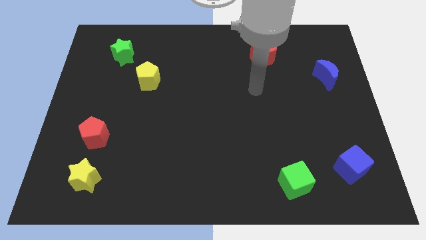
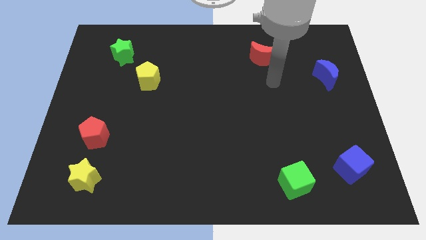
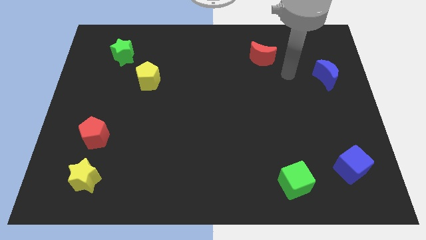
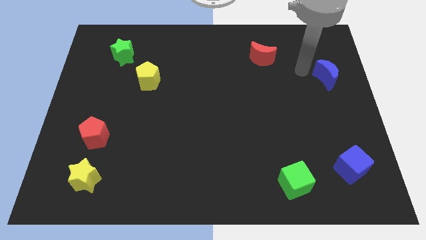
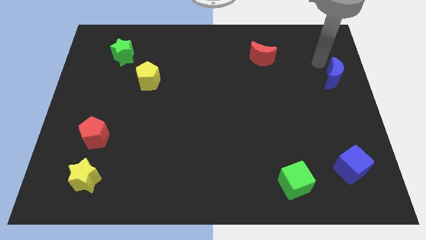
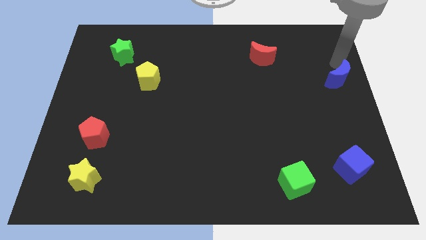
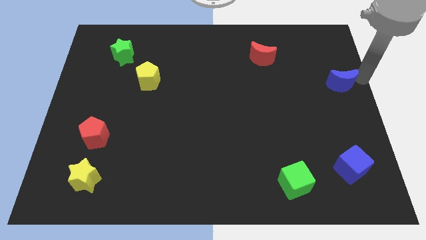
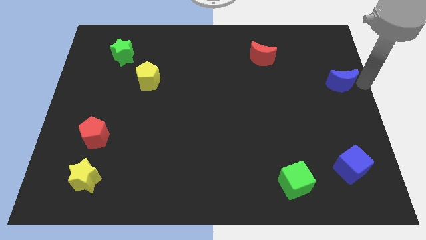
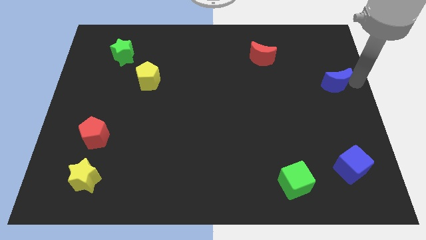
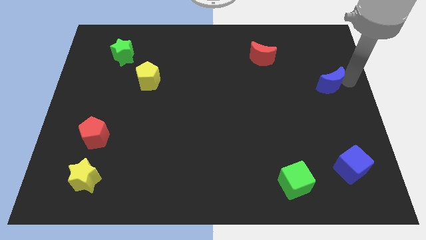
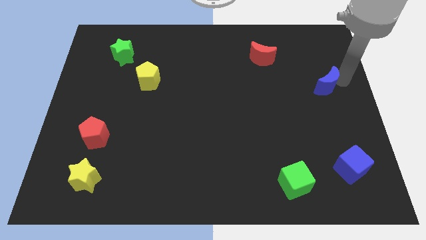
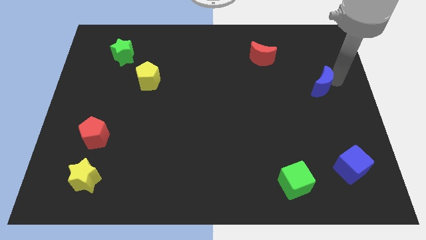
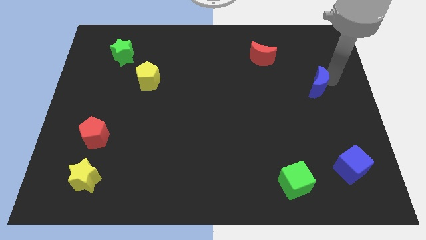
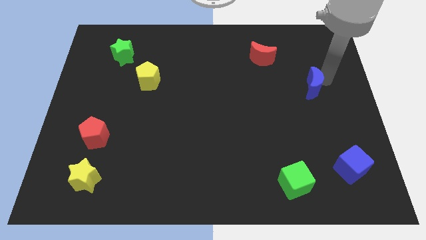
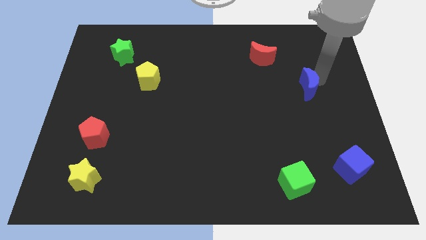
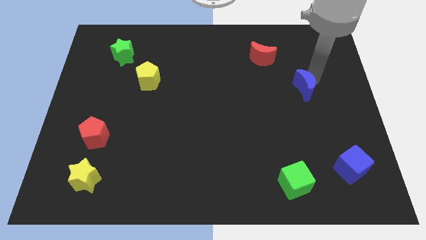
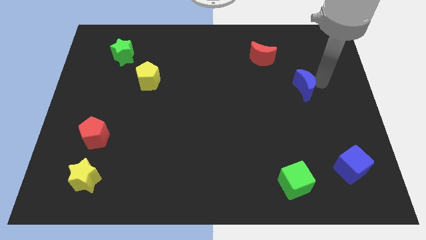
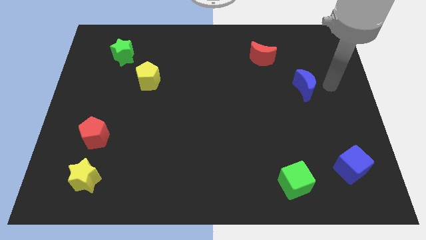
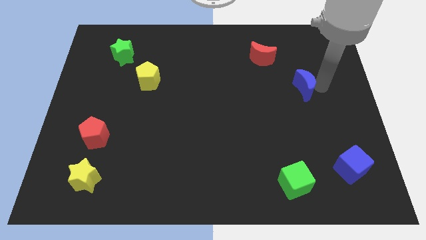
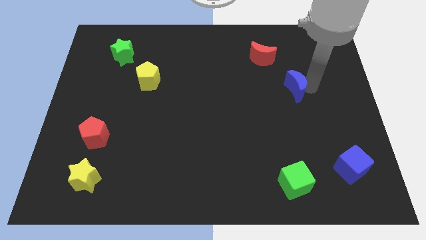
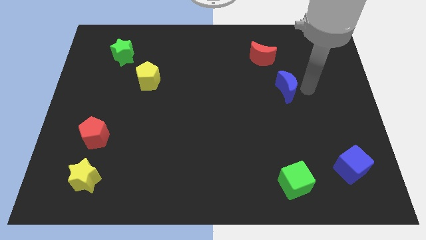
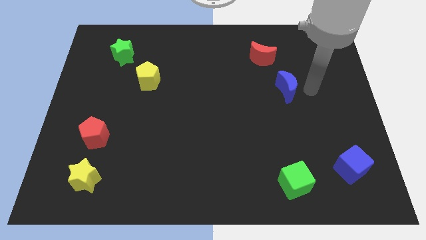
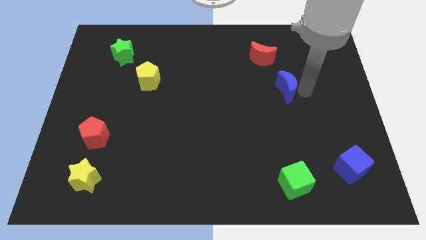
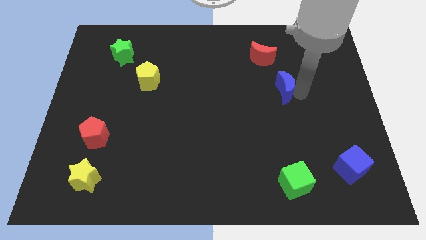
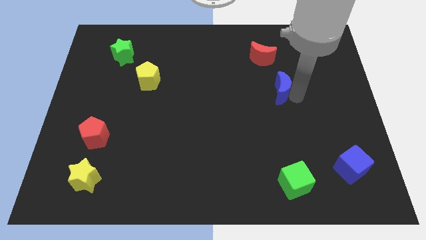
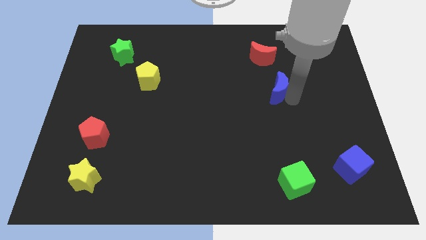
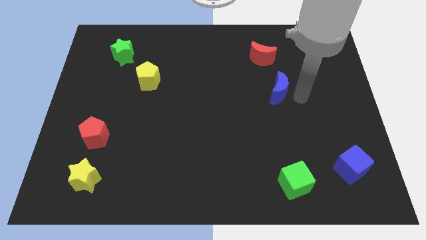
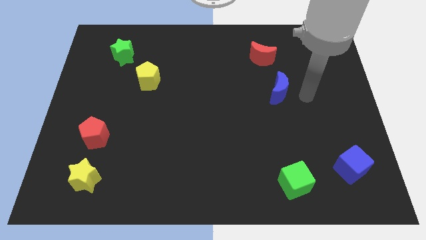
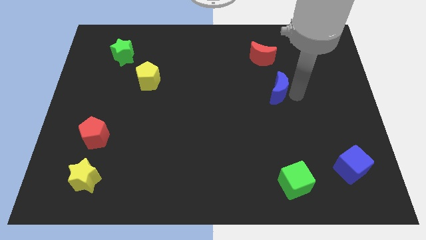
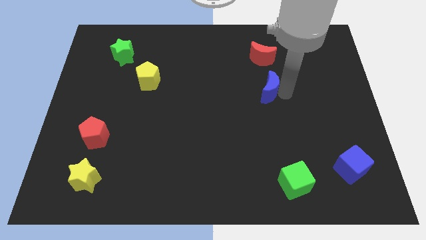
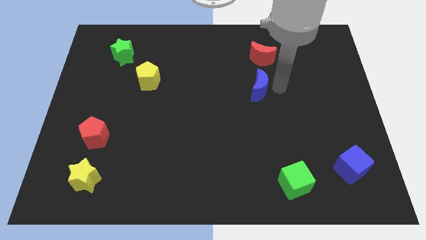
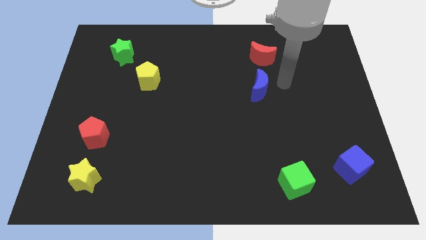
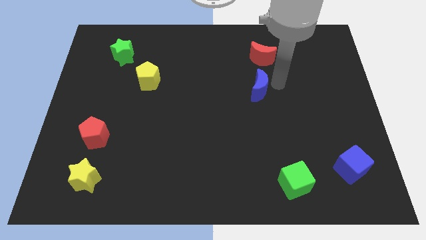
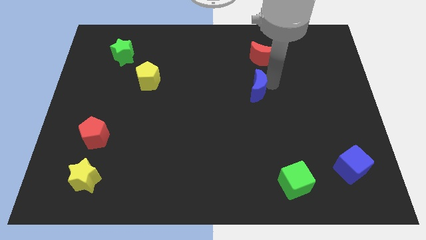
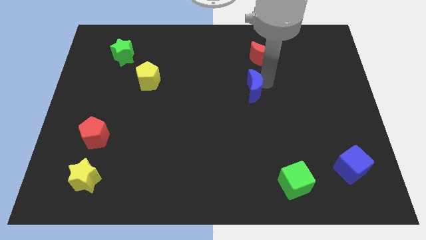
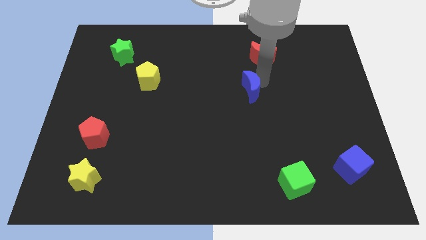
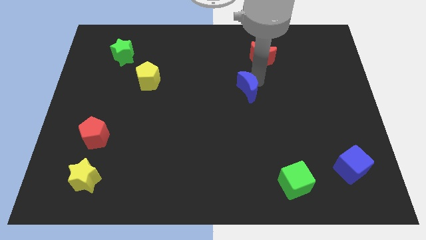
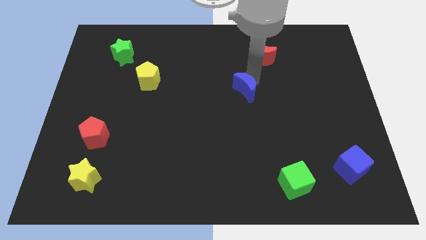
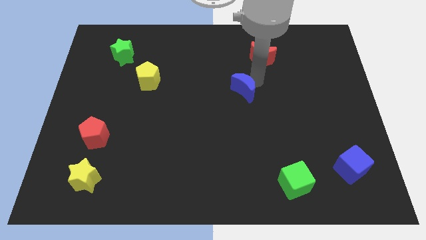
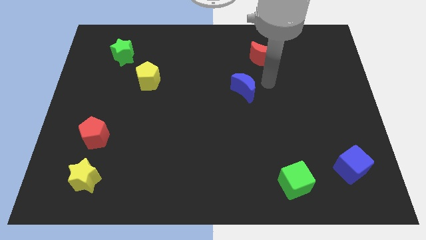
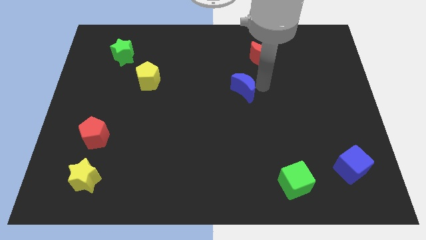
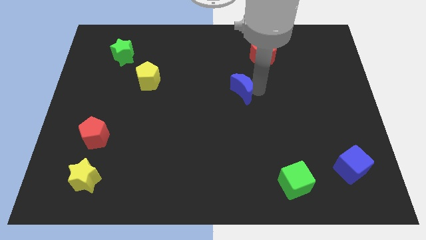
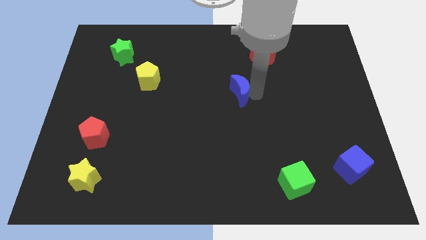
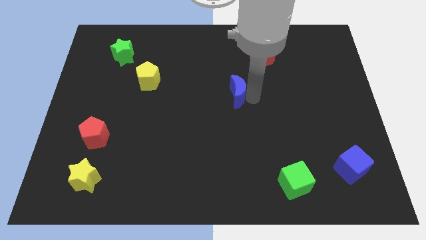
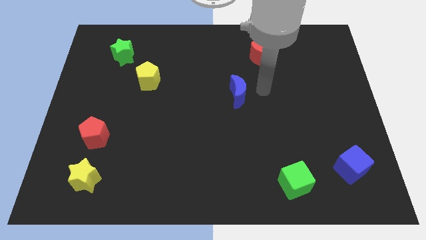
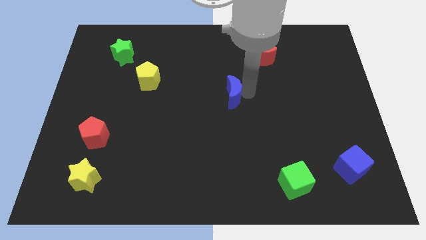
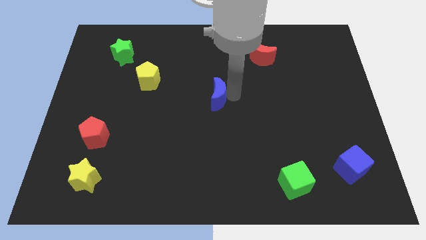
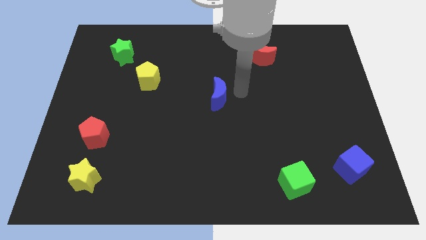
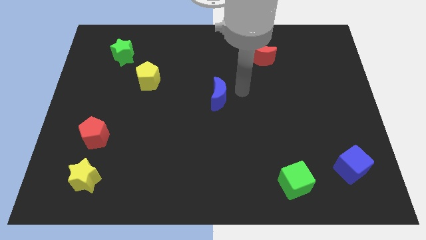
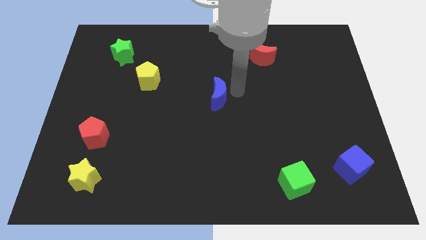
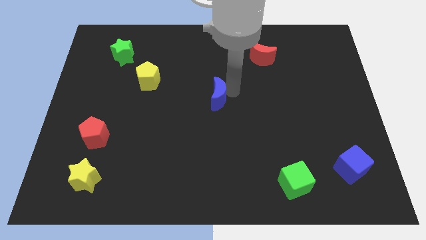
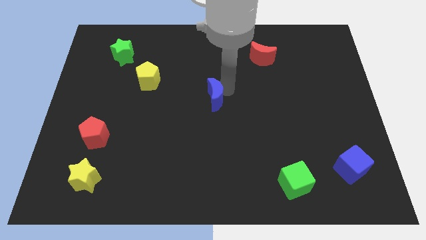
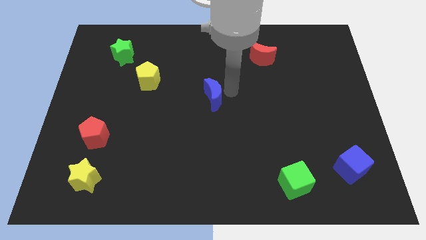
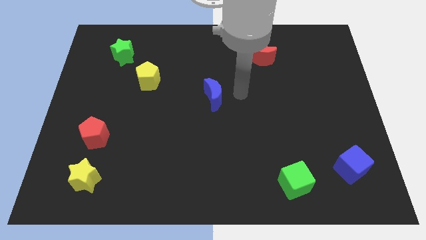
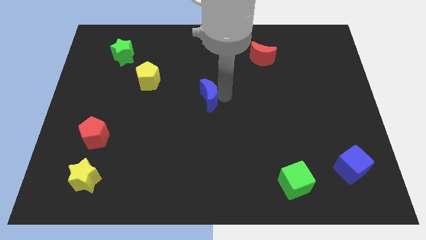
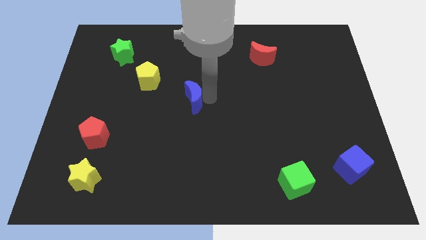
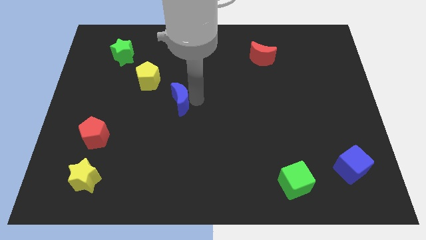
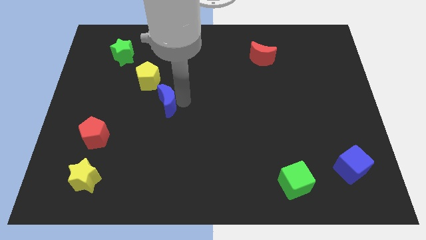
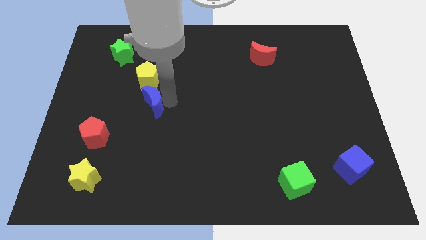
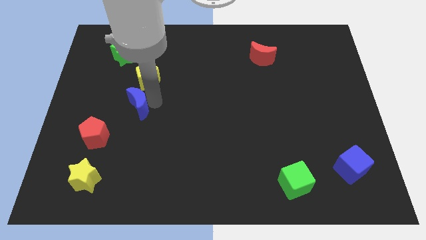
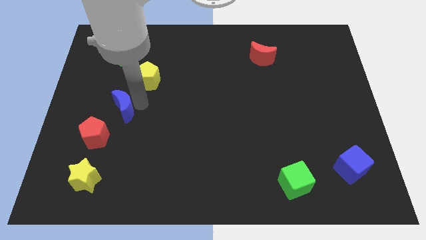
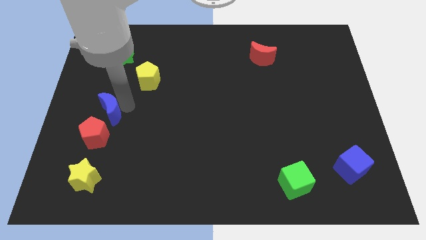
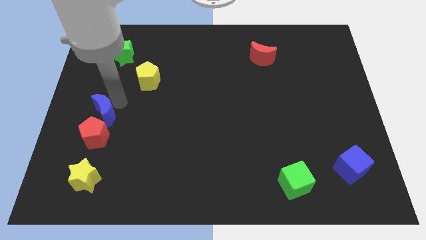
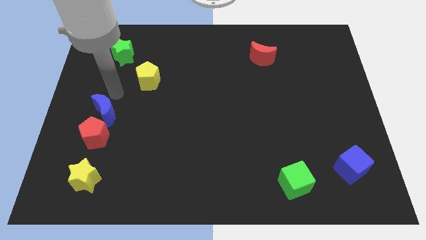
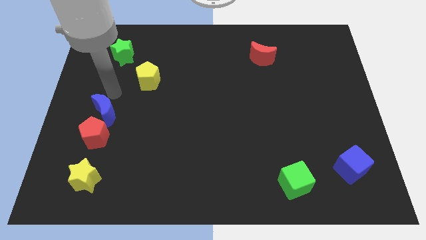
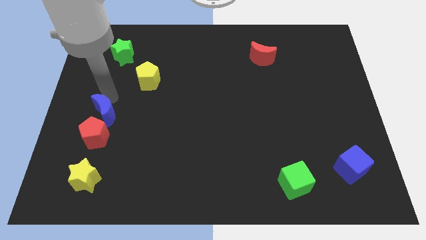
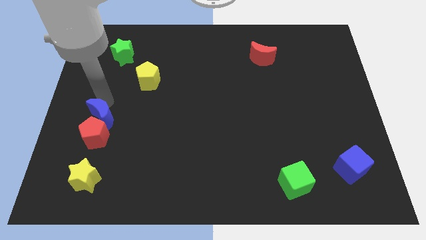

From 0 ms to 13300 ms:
move the blue moon to the top of the yellow star
